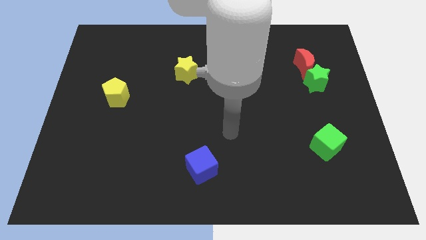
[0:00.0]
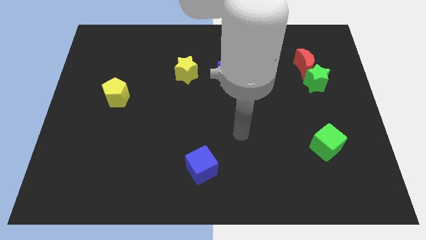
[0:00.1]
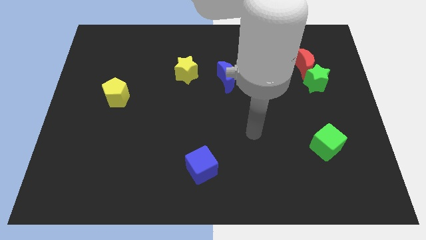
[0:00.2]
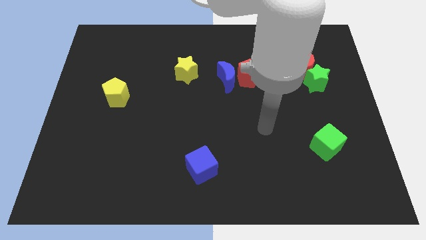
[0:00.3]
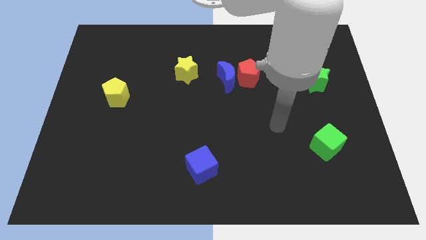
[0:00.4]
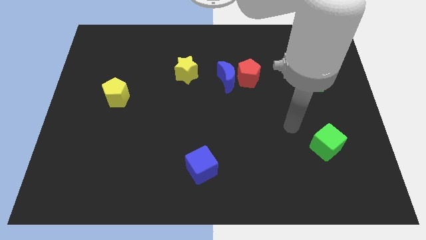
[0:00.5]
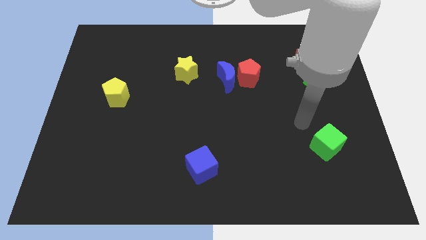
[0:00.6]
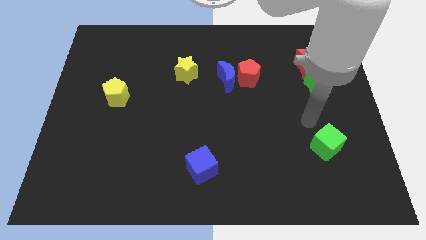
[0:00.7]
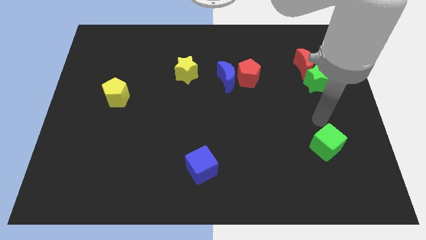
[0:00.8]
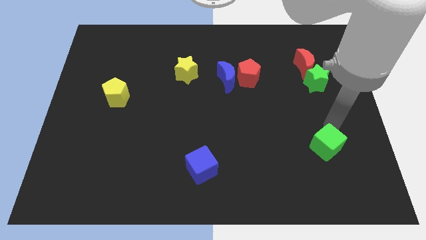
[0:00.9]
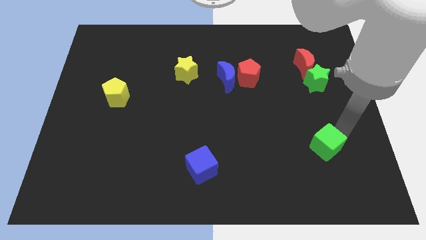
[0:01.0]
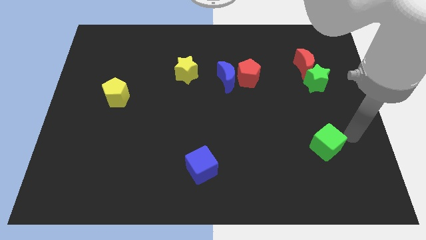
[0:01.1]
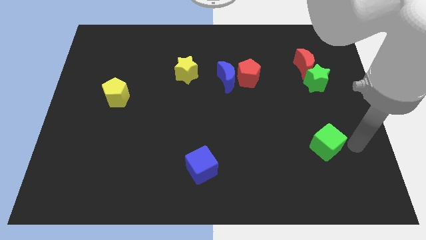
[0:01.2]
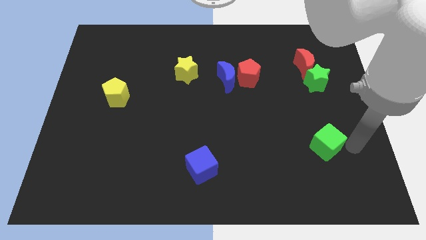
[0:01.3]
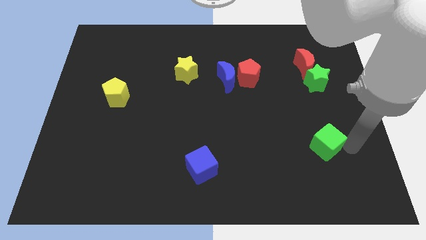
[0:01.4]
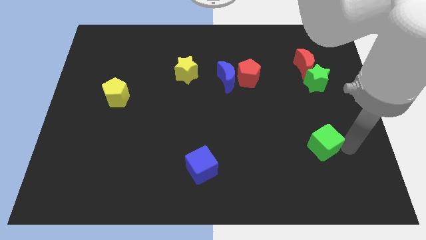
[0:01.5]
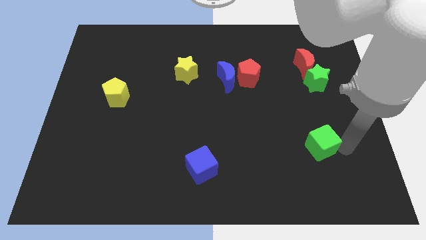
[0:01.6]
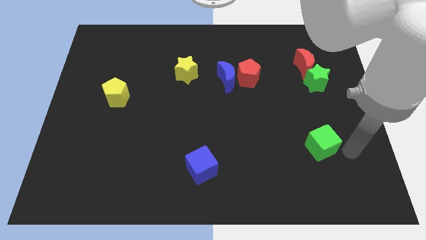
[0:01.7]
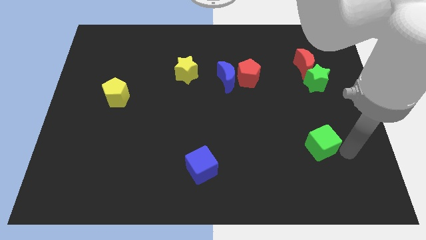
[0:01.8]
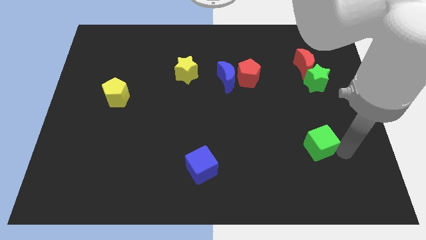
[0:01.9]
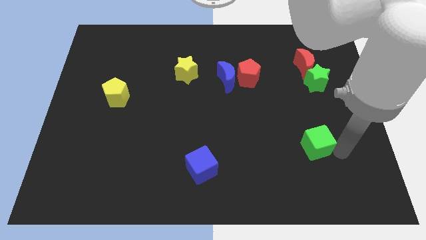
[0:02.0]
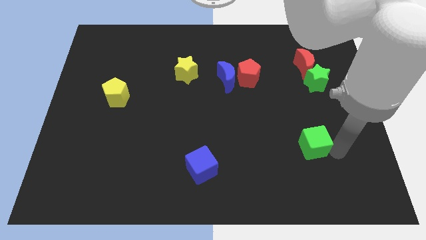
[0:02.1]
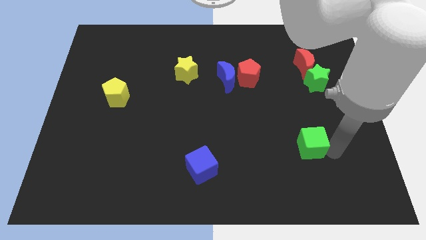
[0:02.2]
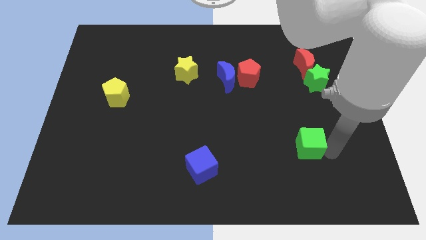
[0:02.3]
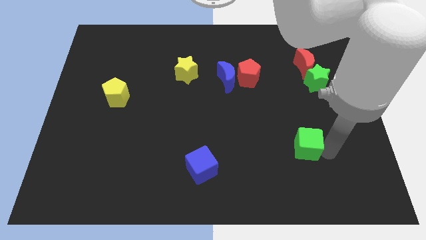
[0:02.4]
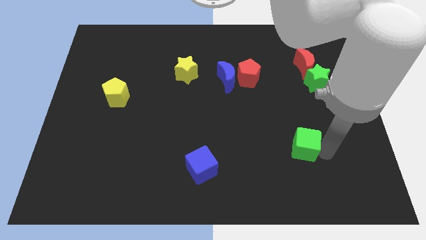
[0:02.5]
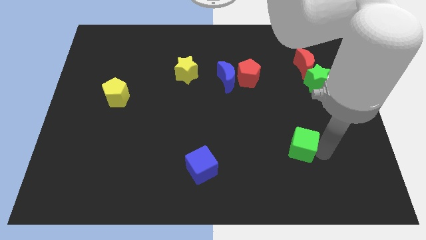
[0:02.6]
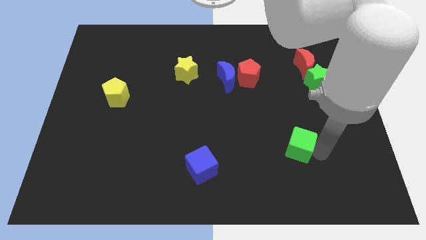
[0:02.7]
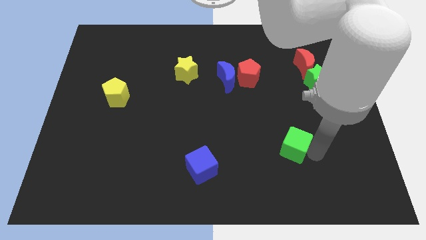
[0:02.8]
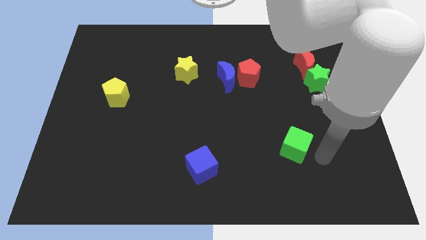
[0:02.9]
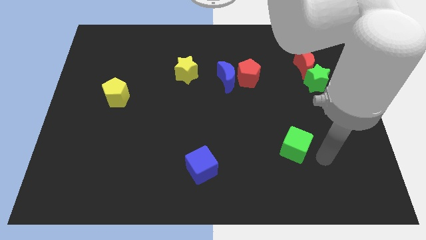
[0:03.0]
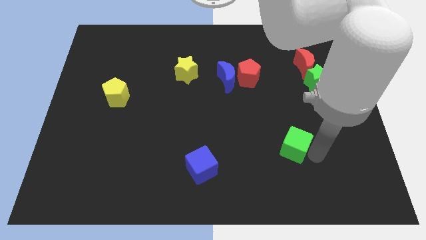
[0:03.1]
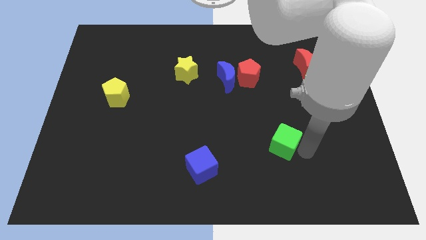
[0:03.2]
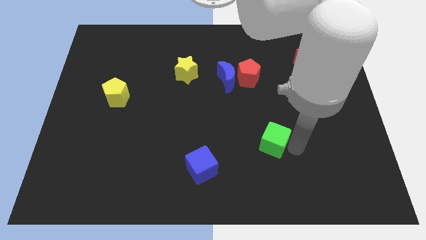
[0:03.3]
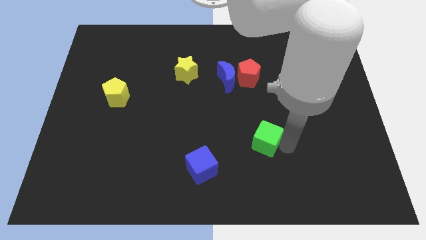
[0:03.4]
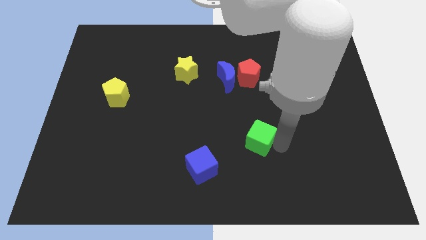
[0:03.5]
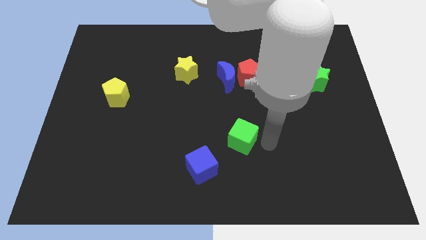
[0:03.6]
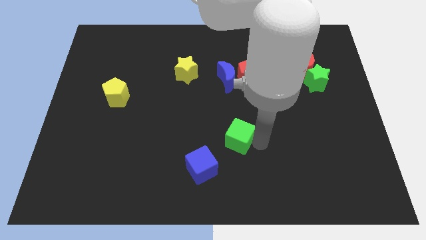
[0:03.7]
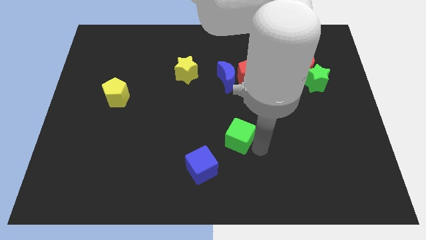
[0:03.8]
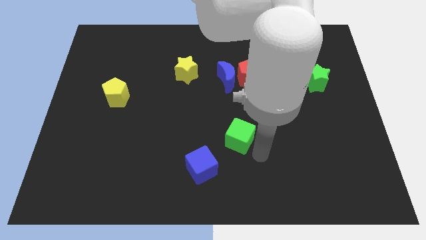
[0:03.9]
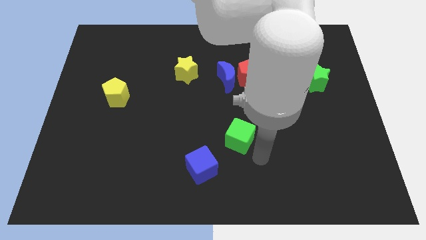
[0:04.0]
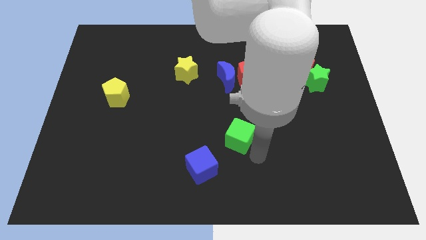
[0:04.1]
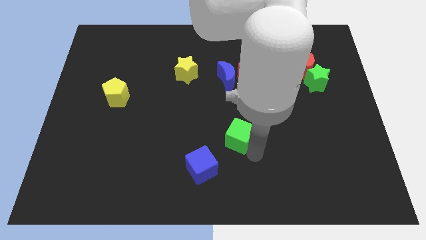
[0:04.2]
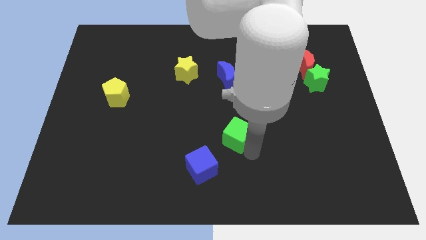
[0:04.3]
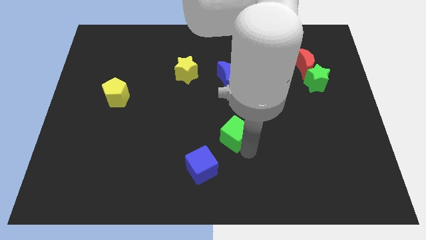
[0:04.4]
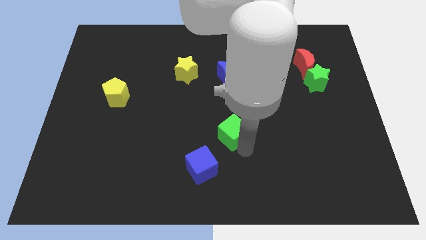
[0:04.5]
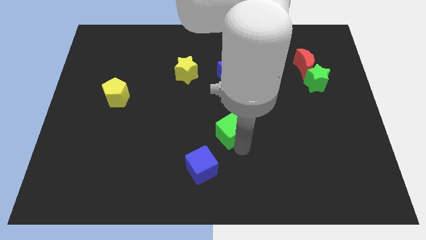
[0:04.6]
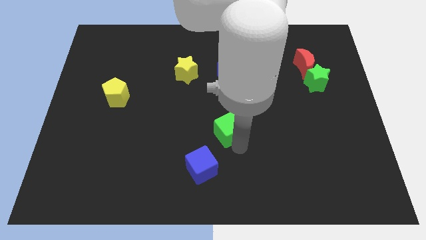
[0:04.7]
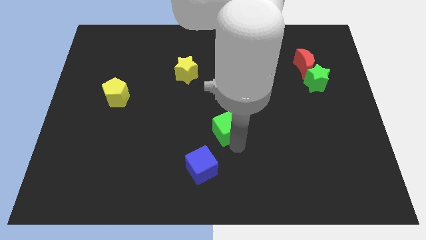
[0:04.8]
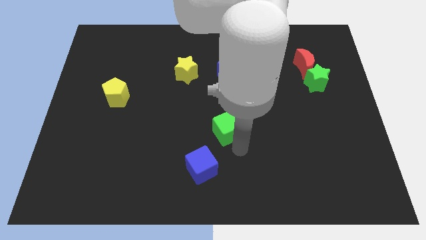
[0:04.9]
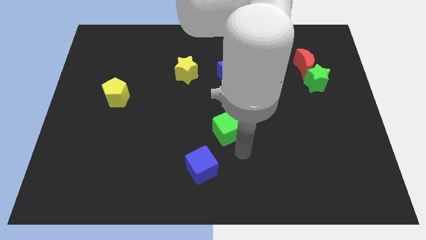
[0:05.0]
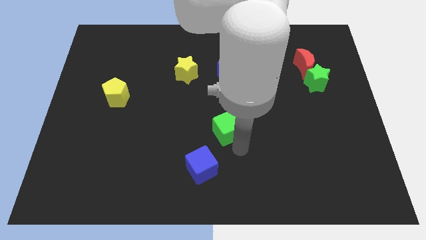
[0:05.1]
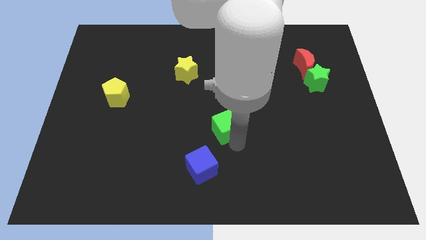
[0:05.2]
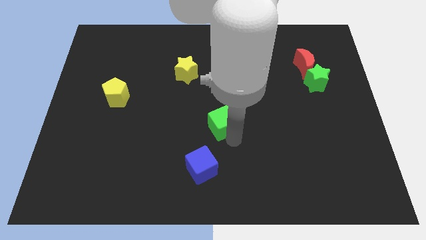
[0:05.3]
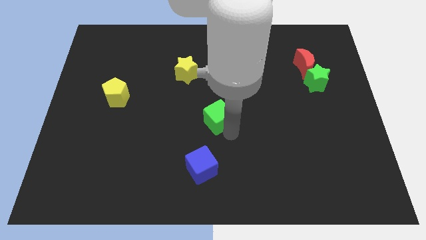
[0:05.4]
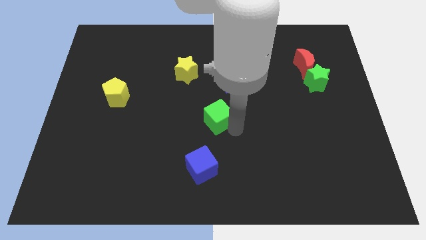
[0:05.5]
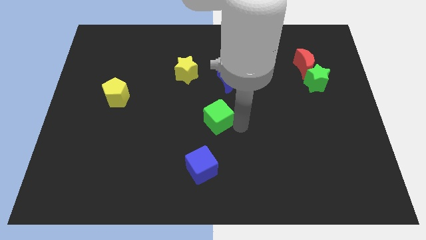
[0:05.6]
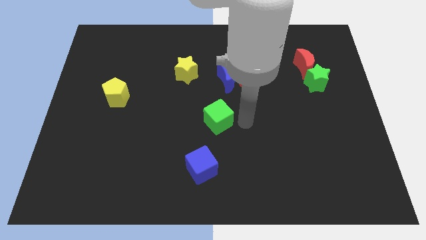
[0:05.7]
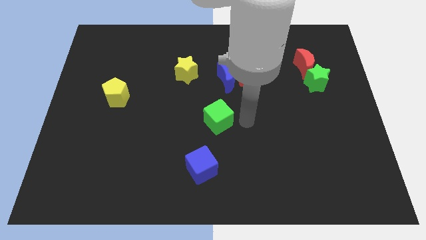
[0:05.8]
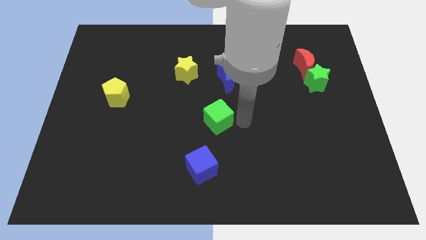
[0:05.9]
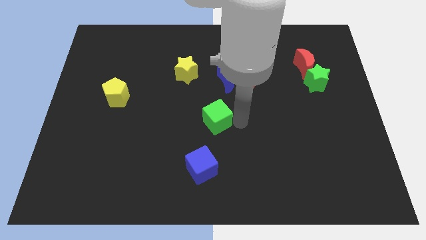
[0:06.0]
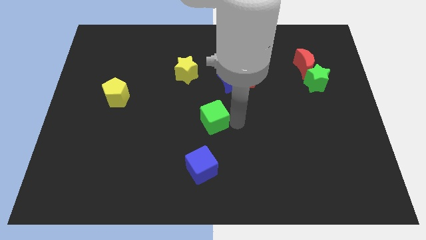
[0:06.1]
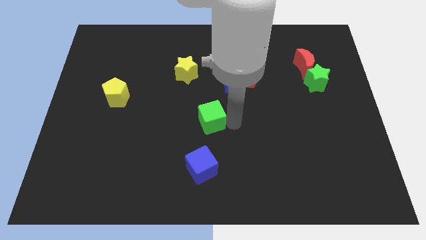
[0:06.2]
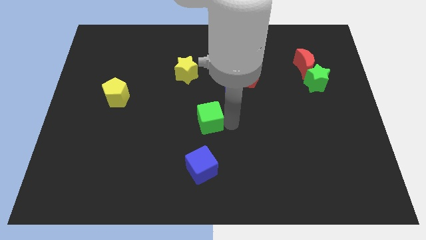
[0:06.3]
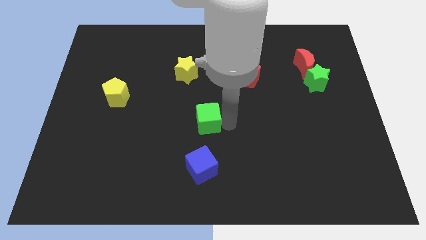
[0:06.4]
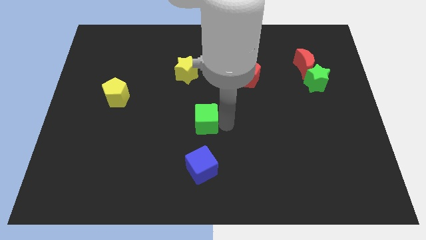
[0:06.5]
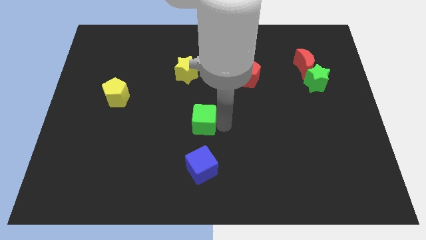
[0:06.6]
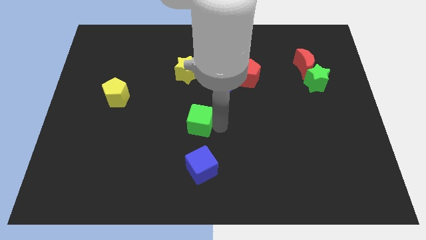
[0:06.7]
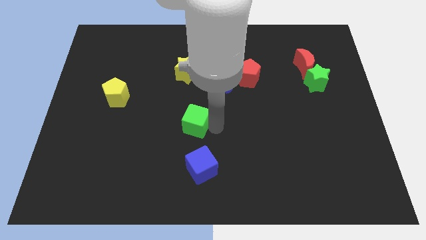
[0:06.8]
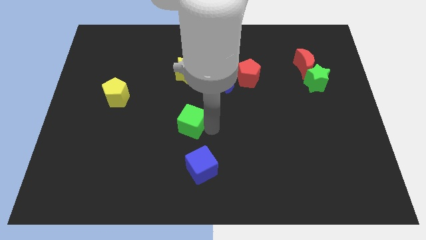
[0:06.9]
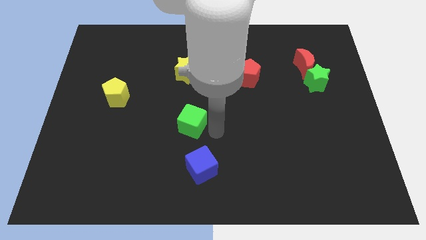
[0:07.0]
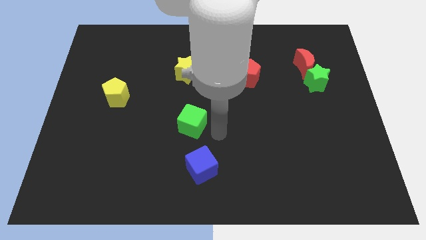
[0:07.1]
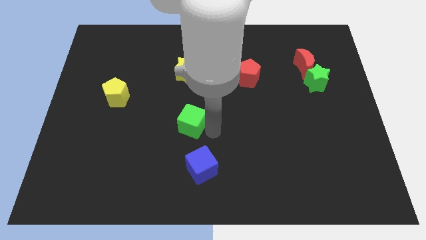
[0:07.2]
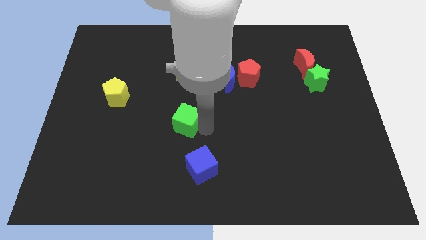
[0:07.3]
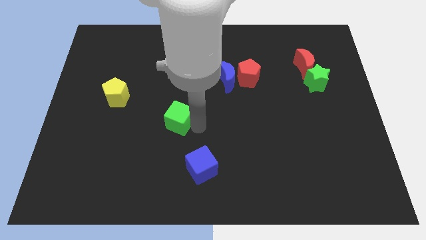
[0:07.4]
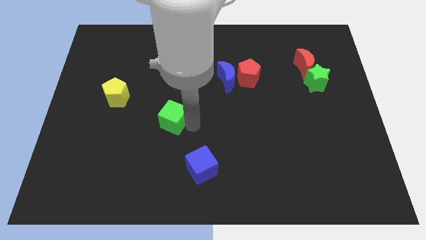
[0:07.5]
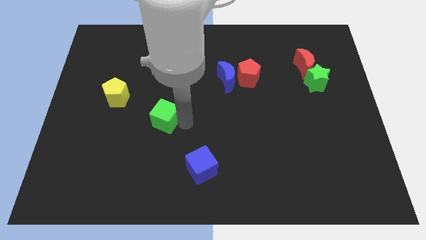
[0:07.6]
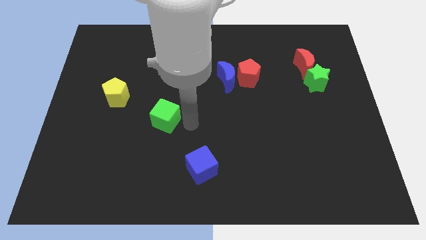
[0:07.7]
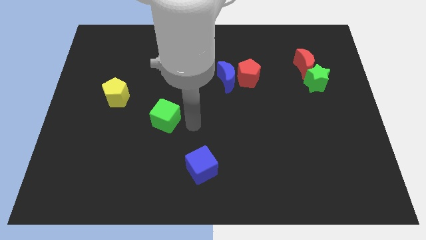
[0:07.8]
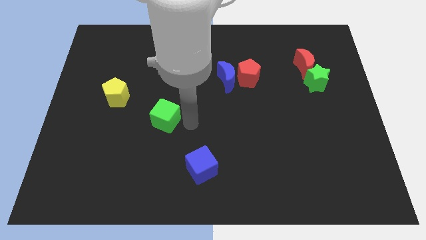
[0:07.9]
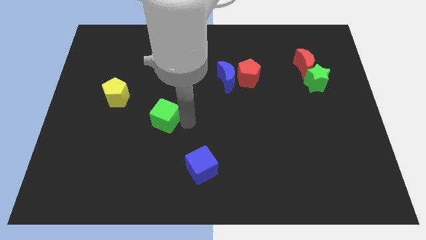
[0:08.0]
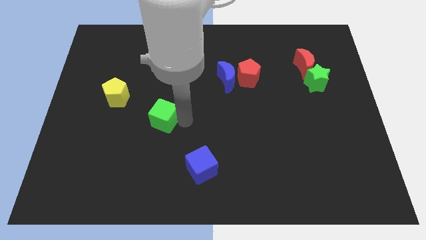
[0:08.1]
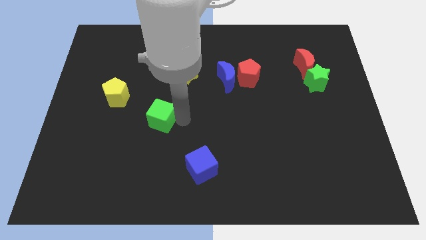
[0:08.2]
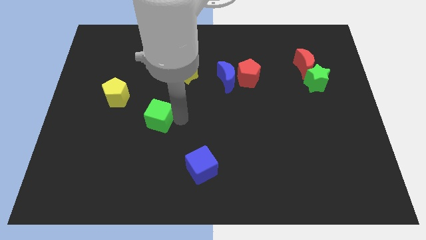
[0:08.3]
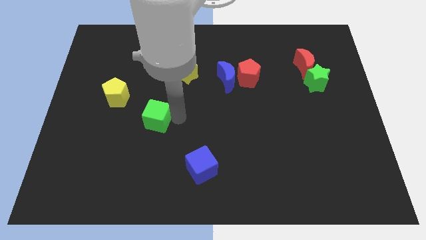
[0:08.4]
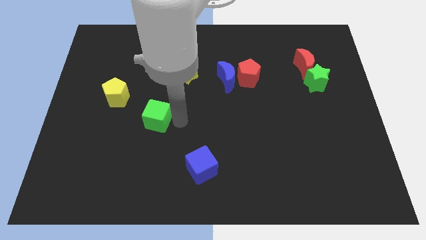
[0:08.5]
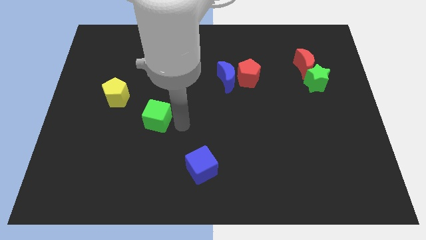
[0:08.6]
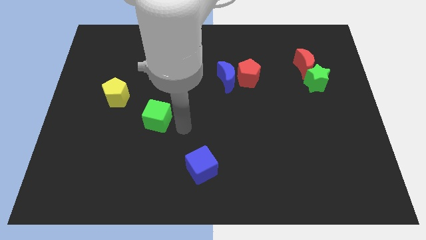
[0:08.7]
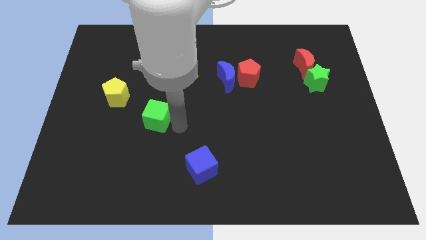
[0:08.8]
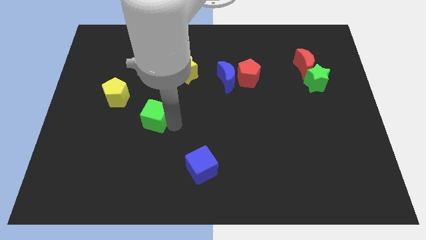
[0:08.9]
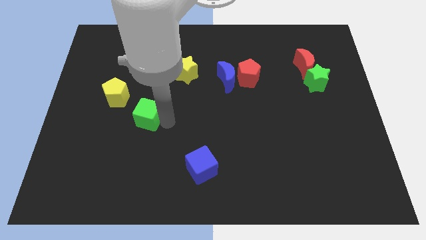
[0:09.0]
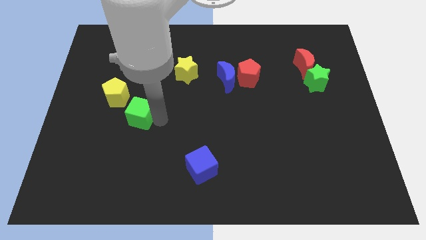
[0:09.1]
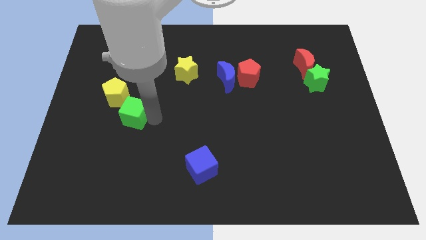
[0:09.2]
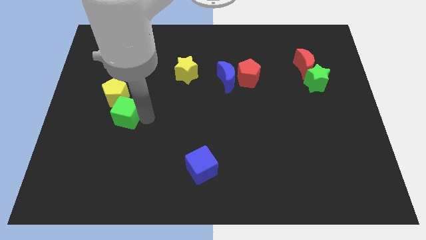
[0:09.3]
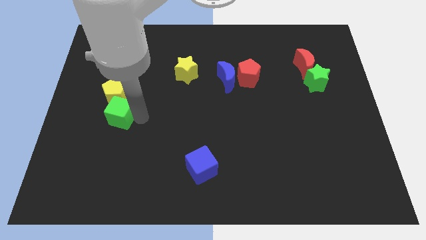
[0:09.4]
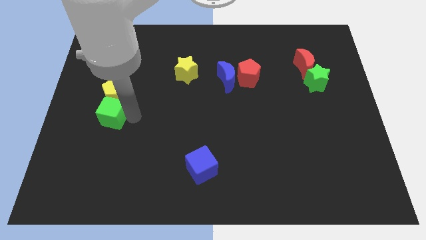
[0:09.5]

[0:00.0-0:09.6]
slide the green cube to the bottom left side of the yellow pentagon
